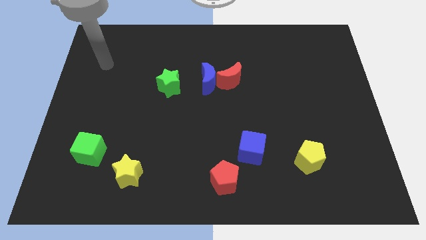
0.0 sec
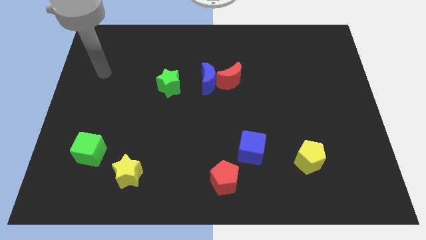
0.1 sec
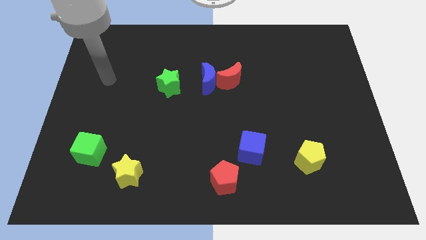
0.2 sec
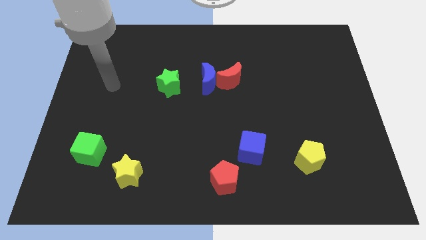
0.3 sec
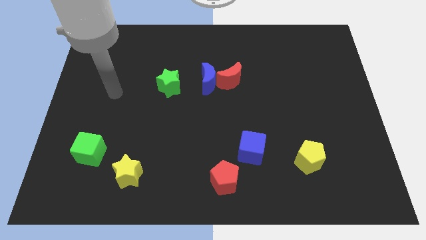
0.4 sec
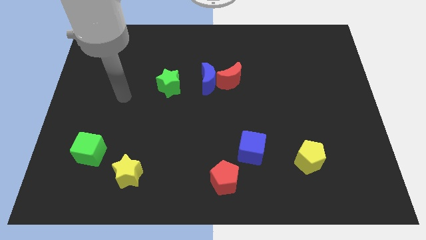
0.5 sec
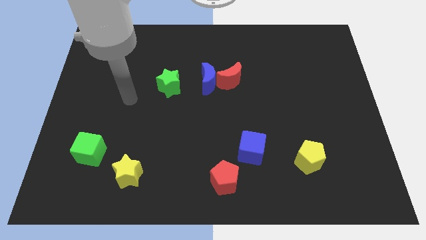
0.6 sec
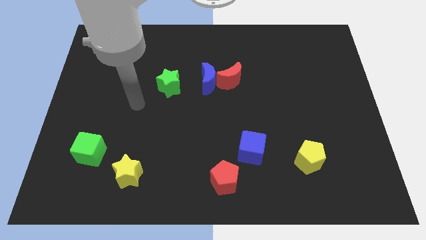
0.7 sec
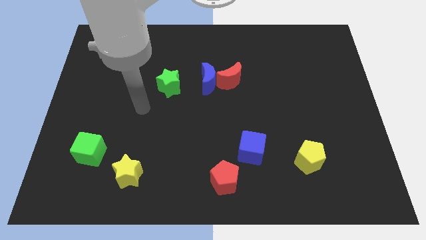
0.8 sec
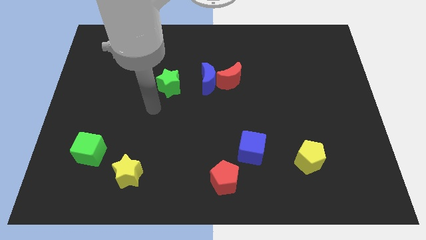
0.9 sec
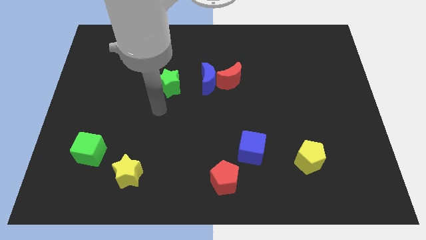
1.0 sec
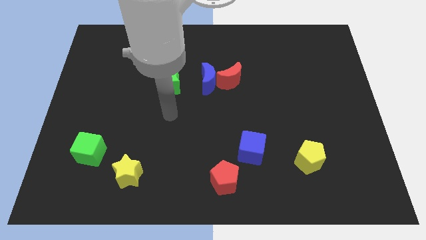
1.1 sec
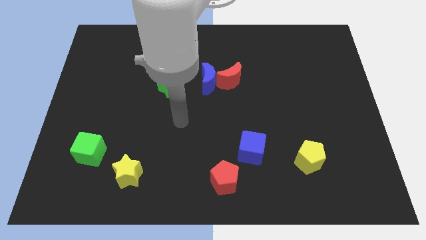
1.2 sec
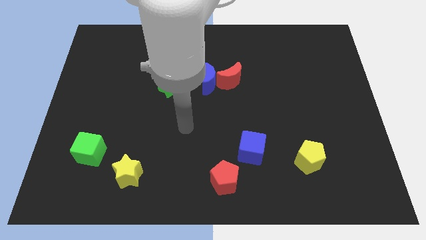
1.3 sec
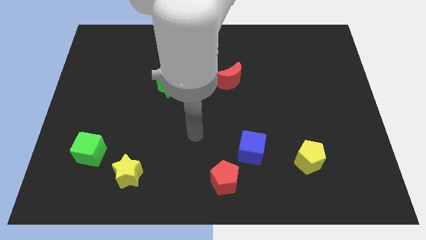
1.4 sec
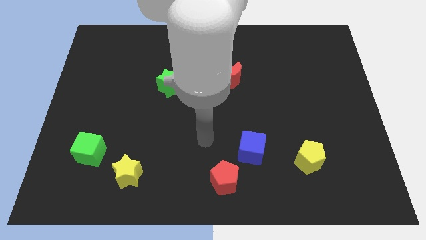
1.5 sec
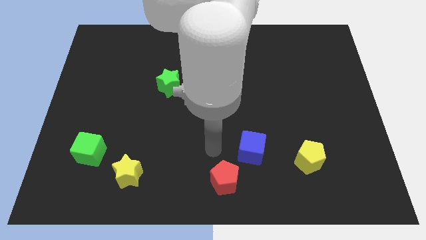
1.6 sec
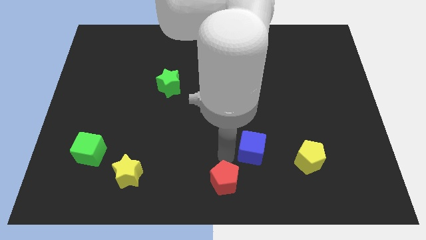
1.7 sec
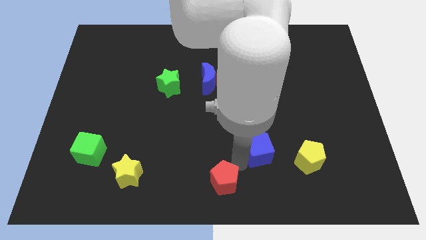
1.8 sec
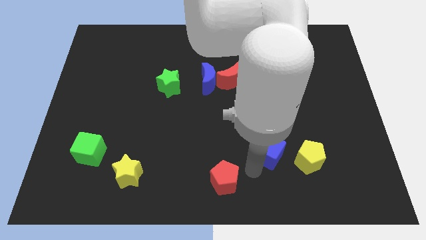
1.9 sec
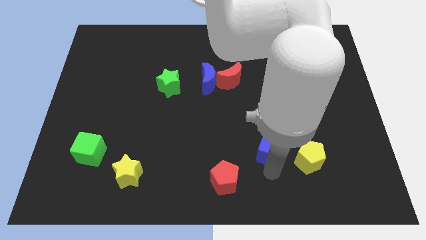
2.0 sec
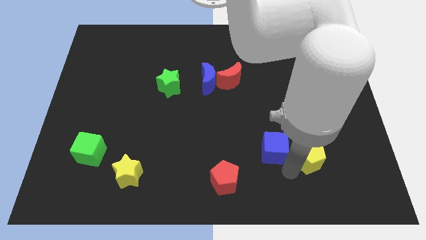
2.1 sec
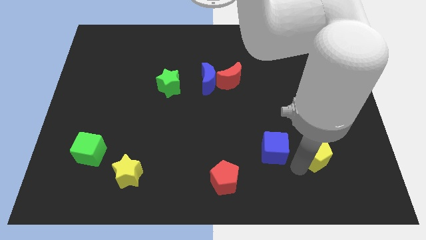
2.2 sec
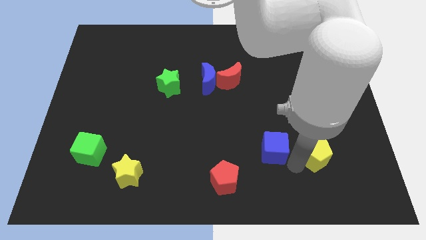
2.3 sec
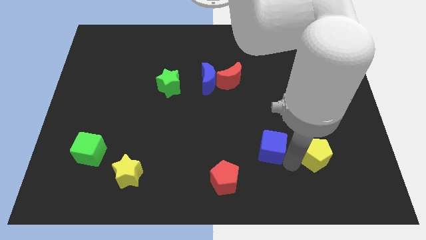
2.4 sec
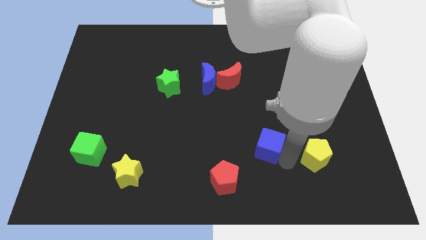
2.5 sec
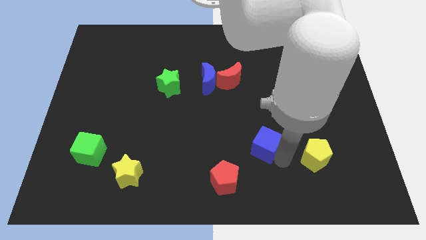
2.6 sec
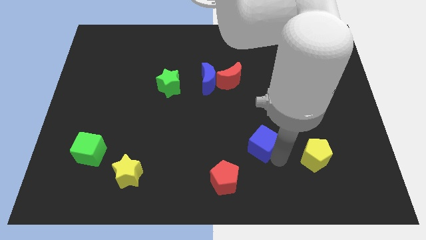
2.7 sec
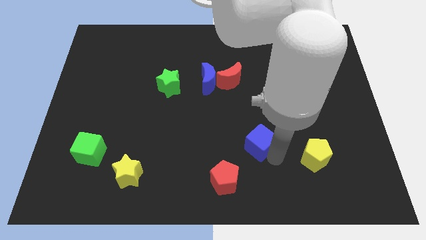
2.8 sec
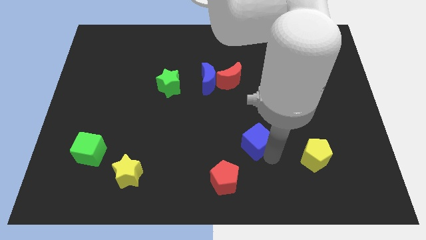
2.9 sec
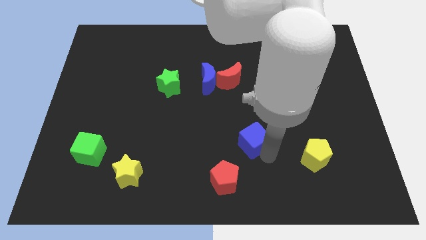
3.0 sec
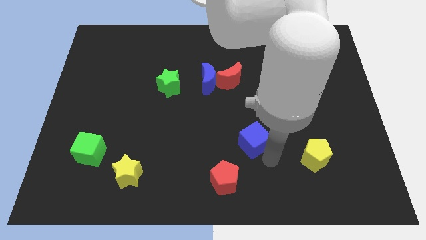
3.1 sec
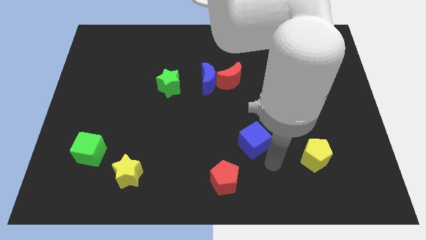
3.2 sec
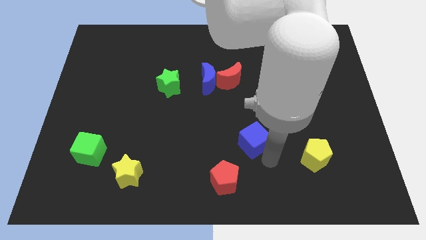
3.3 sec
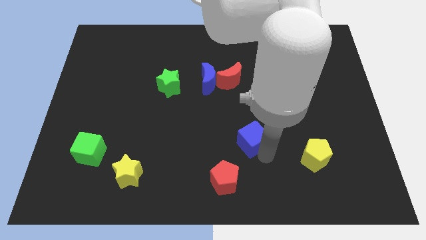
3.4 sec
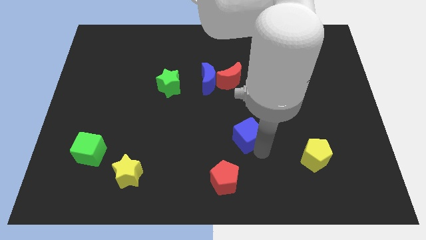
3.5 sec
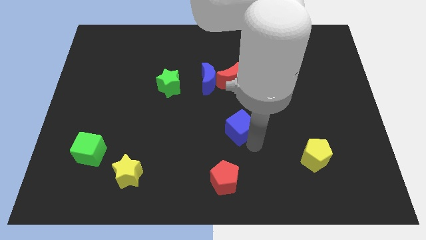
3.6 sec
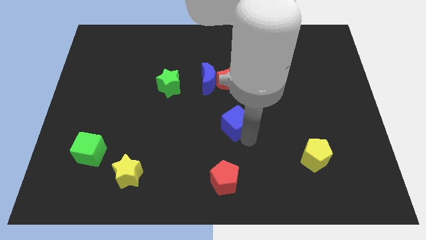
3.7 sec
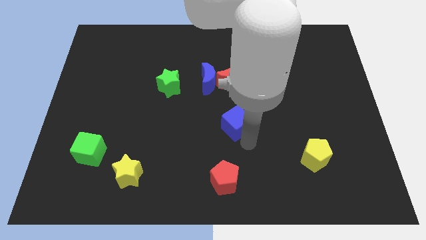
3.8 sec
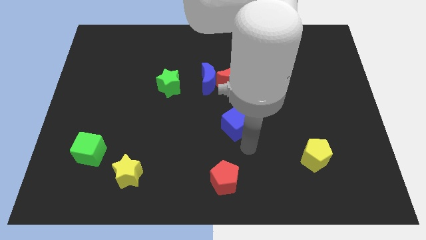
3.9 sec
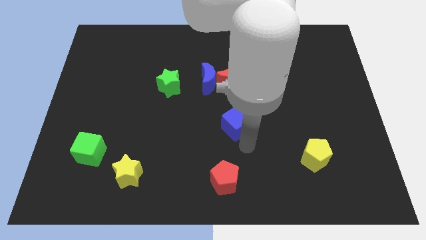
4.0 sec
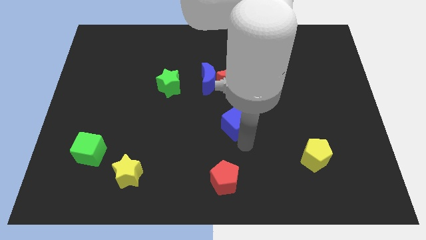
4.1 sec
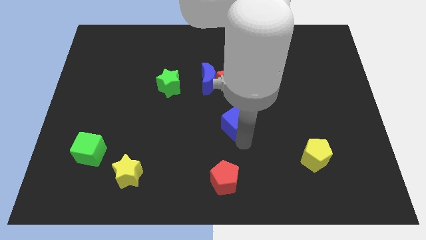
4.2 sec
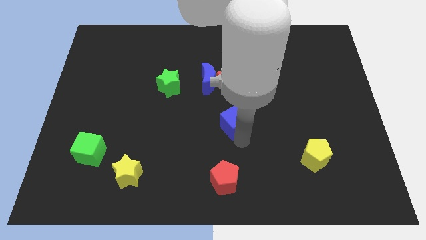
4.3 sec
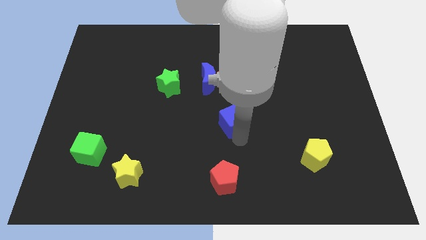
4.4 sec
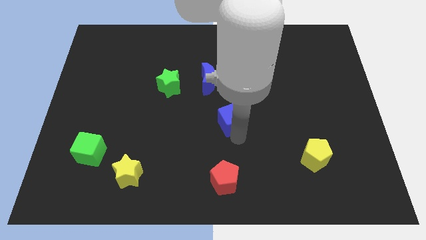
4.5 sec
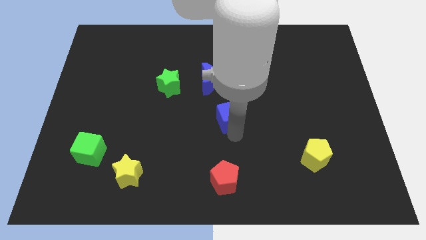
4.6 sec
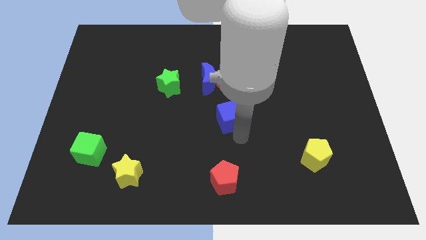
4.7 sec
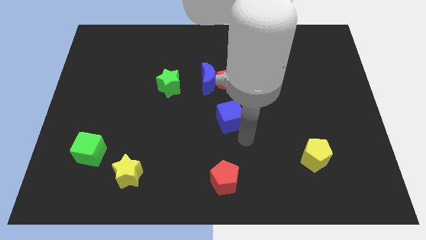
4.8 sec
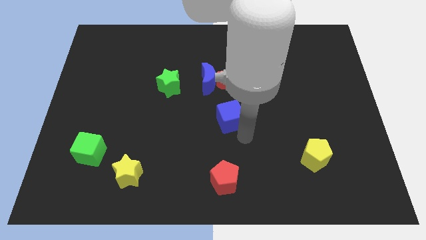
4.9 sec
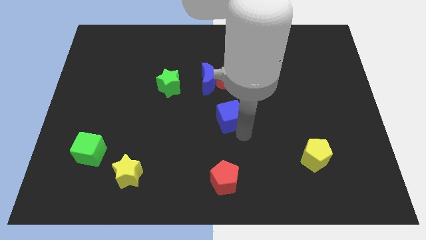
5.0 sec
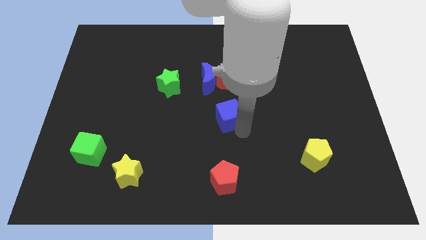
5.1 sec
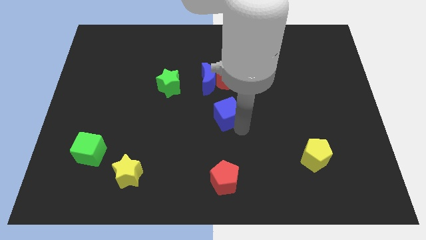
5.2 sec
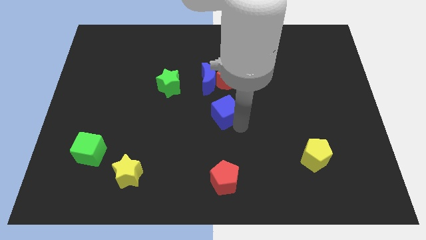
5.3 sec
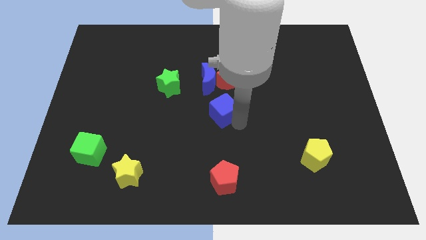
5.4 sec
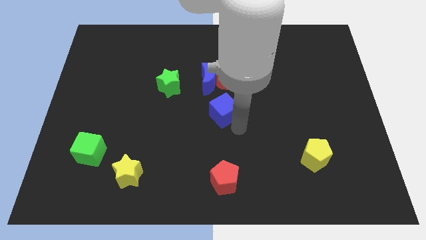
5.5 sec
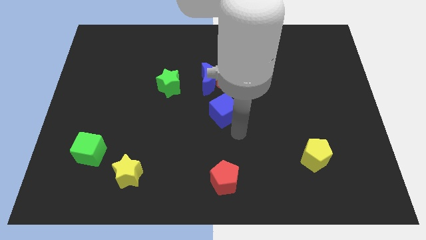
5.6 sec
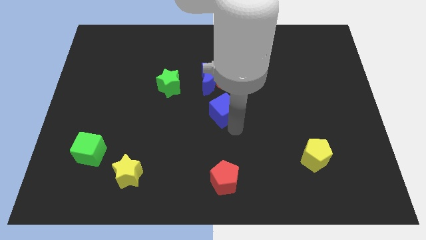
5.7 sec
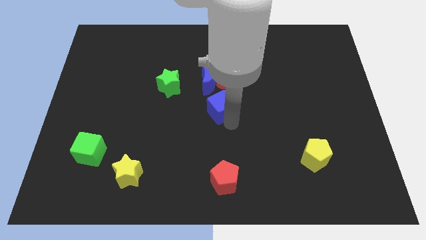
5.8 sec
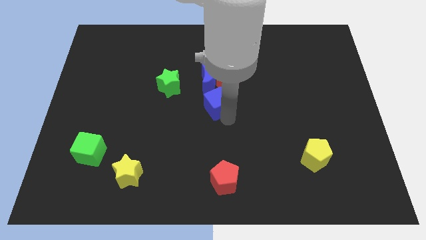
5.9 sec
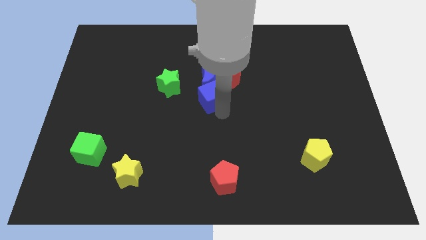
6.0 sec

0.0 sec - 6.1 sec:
put the blue cube next to the blue moon

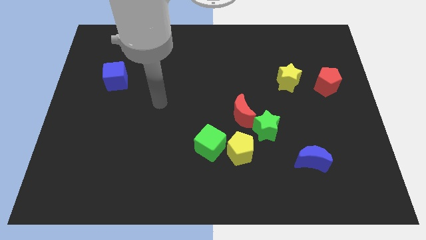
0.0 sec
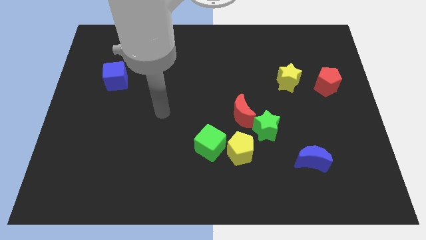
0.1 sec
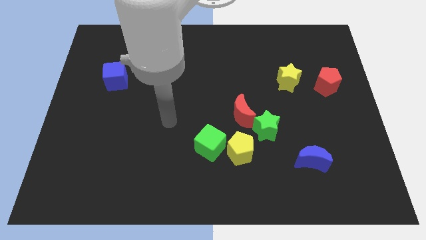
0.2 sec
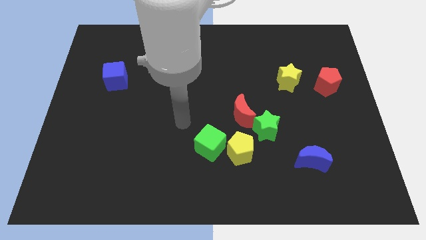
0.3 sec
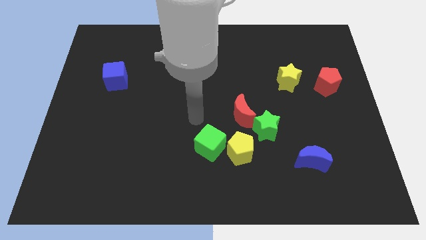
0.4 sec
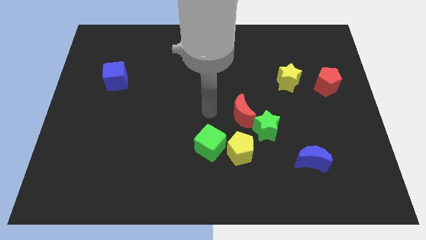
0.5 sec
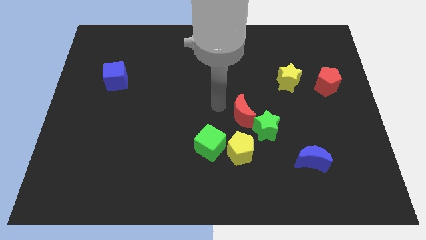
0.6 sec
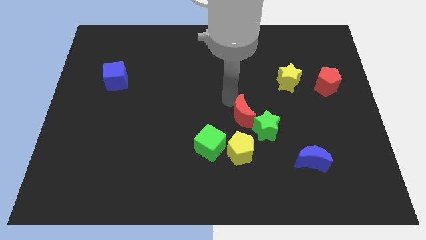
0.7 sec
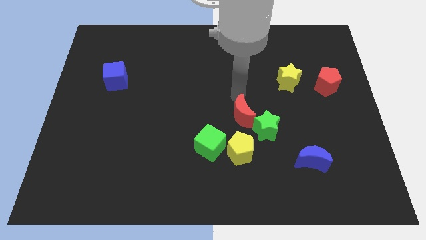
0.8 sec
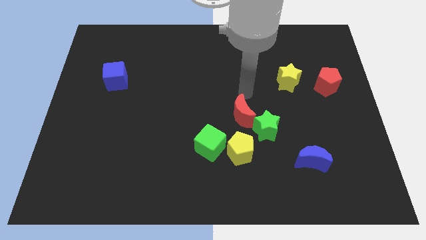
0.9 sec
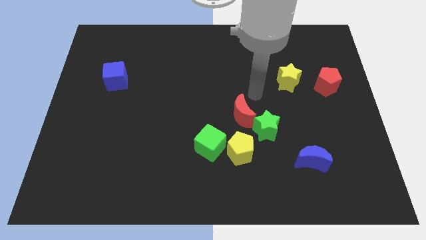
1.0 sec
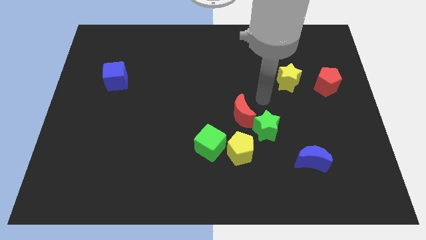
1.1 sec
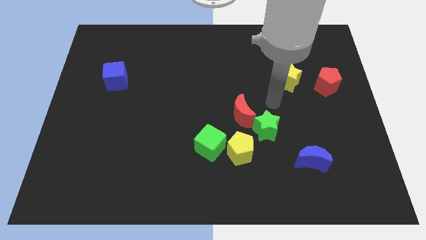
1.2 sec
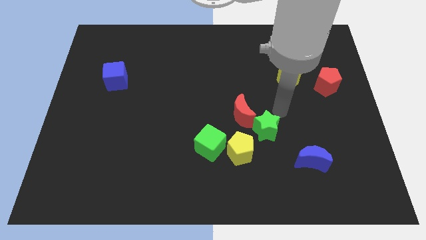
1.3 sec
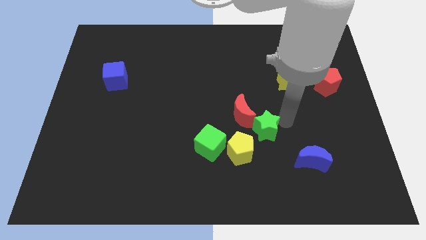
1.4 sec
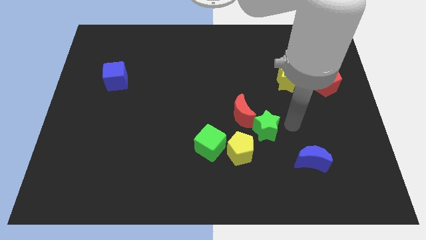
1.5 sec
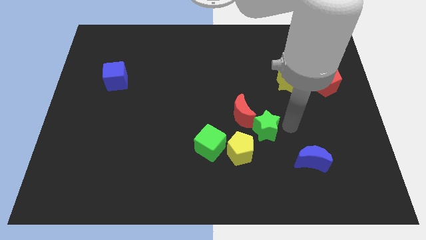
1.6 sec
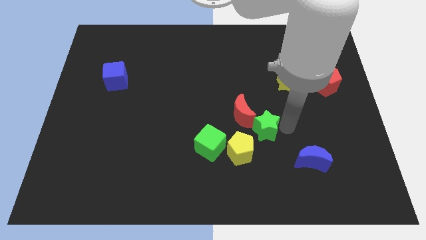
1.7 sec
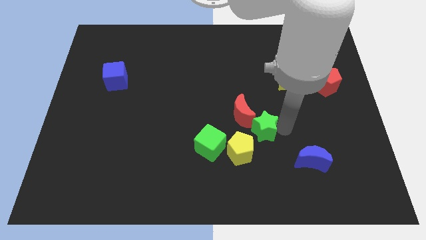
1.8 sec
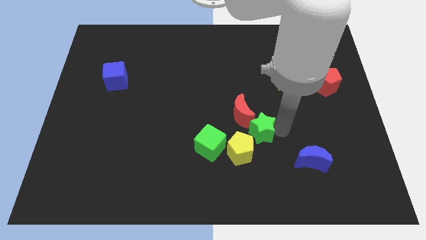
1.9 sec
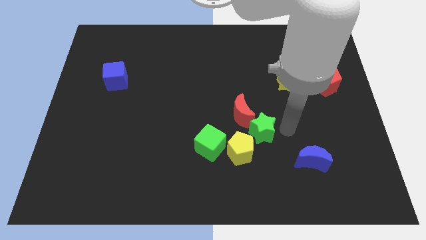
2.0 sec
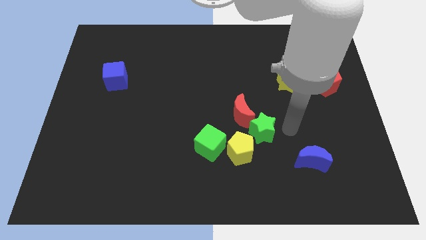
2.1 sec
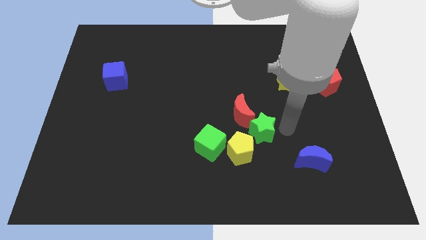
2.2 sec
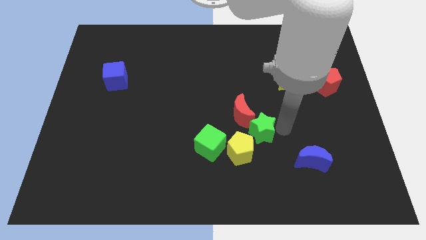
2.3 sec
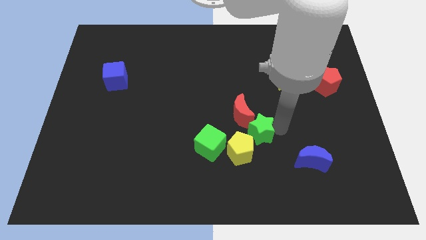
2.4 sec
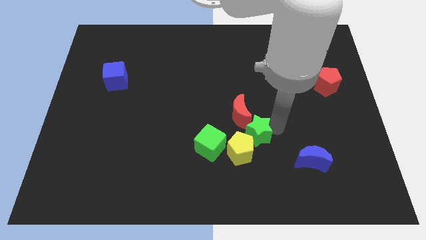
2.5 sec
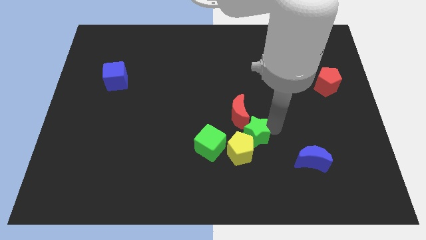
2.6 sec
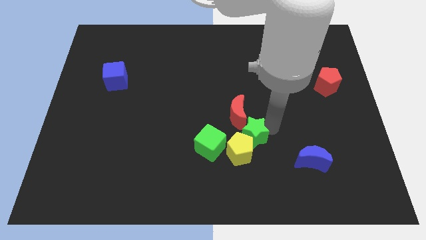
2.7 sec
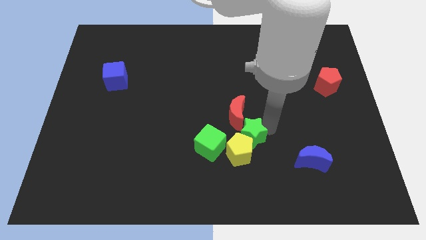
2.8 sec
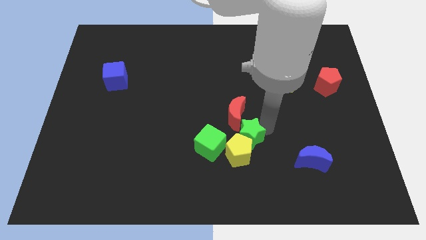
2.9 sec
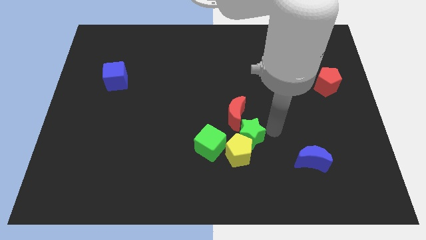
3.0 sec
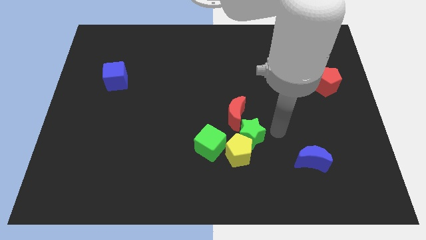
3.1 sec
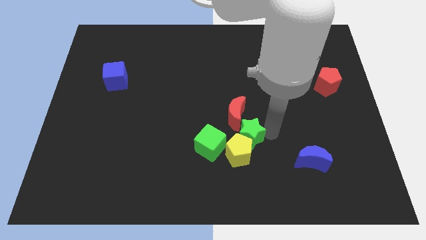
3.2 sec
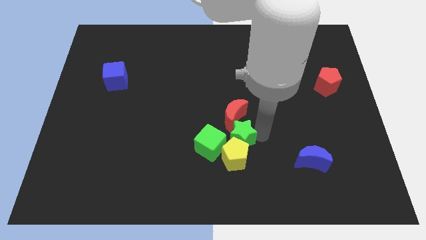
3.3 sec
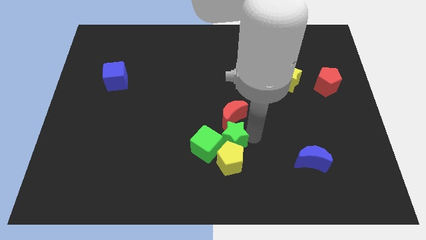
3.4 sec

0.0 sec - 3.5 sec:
move the green star to the green cube
